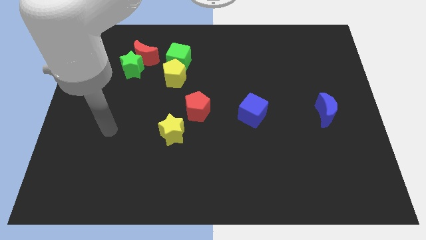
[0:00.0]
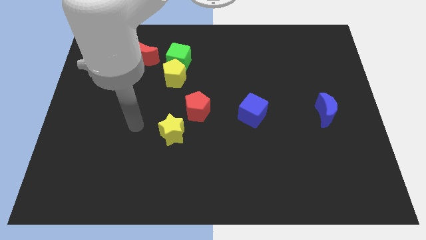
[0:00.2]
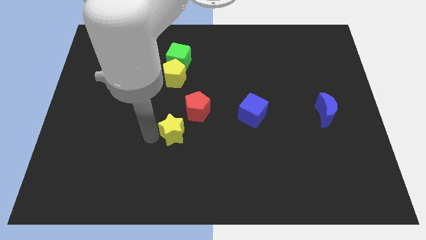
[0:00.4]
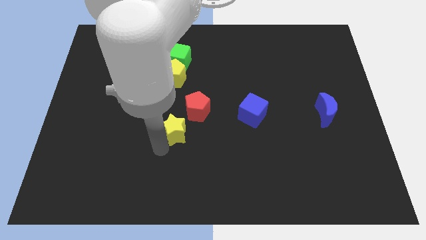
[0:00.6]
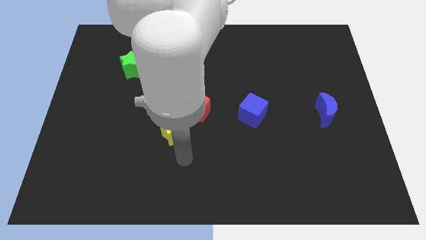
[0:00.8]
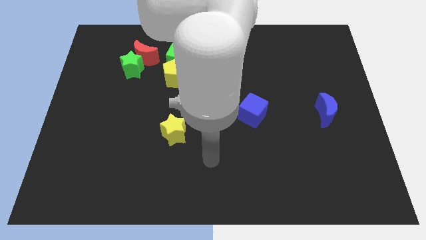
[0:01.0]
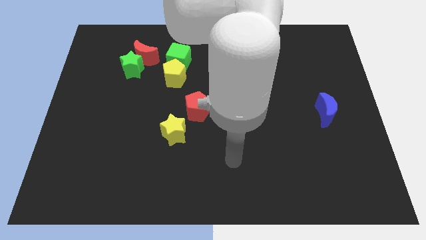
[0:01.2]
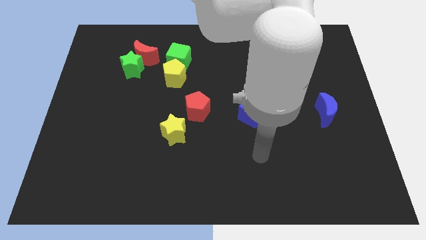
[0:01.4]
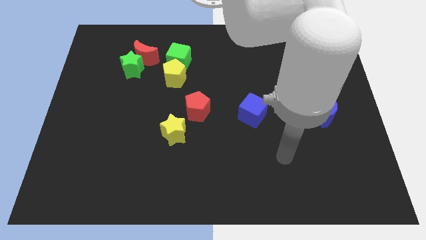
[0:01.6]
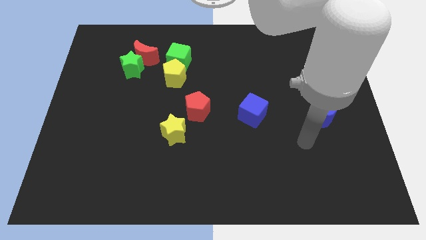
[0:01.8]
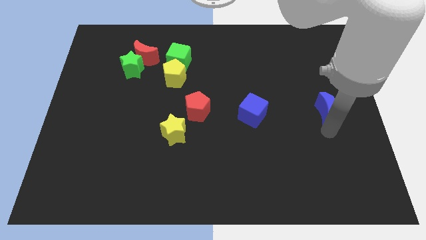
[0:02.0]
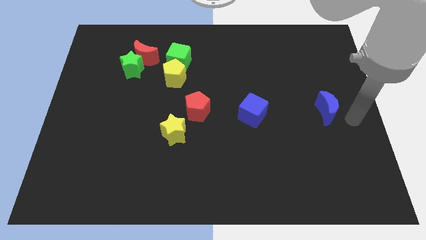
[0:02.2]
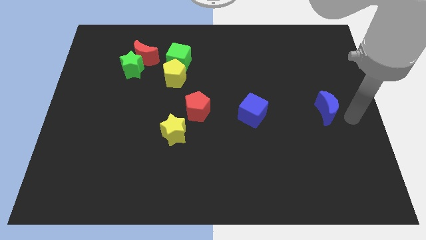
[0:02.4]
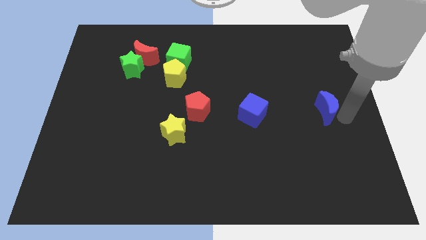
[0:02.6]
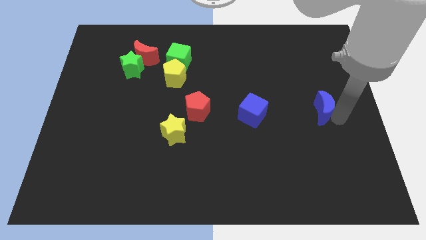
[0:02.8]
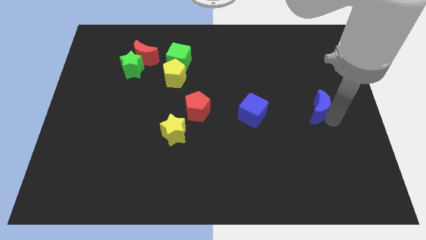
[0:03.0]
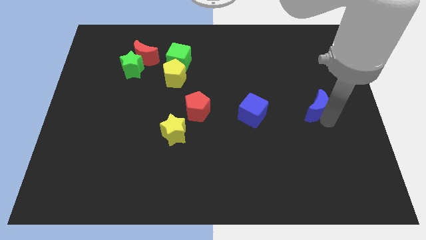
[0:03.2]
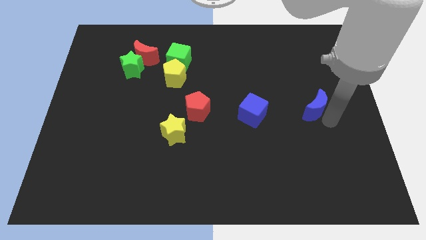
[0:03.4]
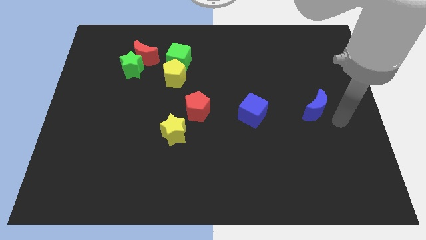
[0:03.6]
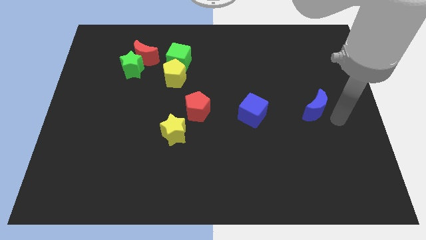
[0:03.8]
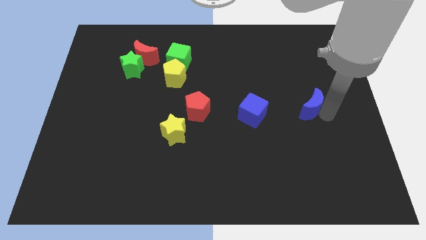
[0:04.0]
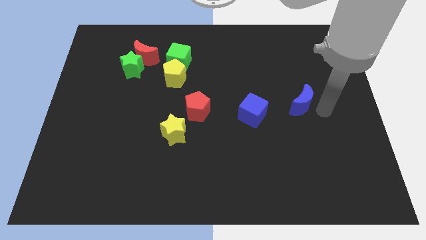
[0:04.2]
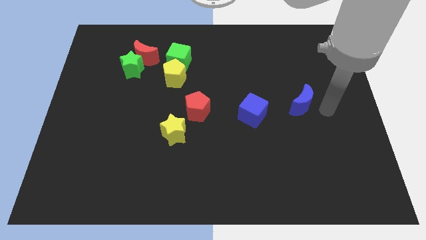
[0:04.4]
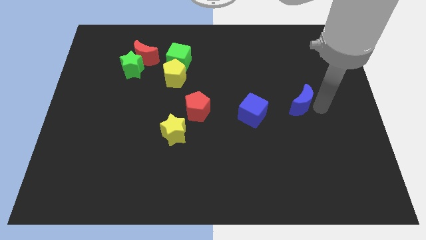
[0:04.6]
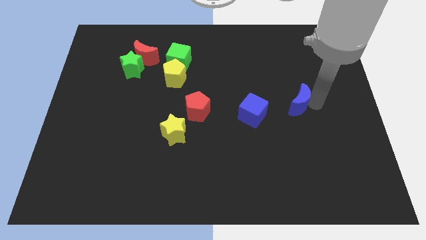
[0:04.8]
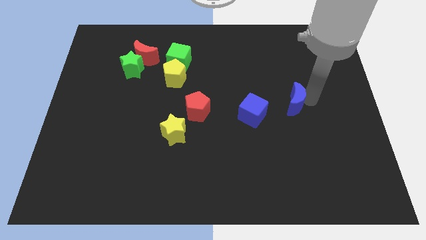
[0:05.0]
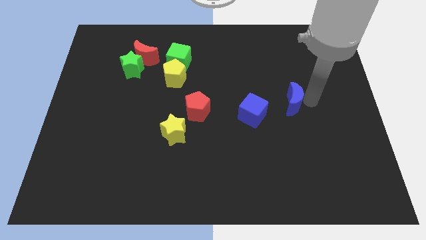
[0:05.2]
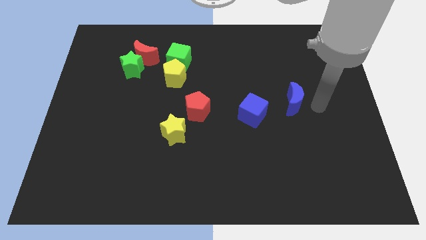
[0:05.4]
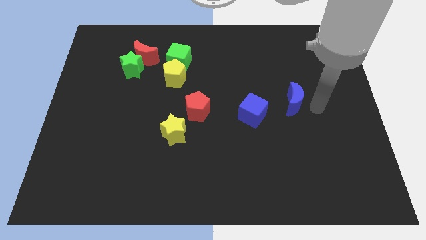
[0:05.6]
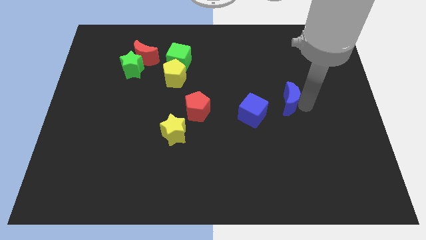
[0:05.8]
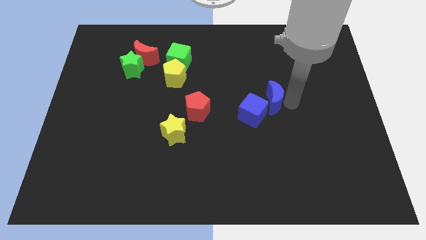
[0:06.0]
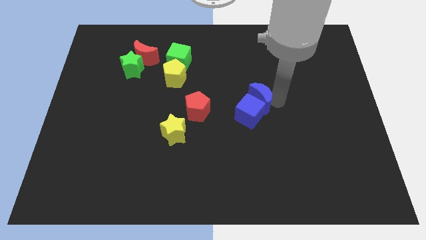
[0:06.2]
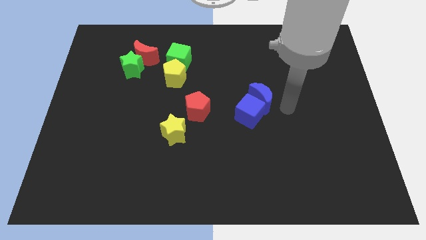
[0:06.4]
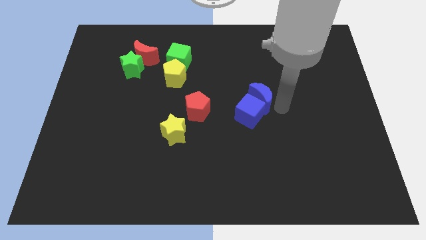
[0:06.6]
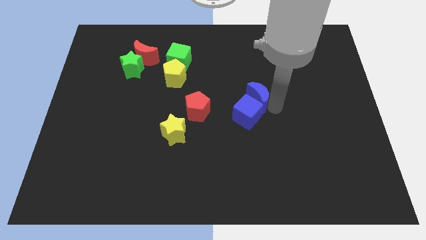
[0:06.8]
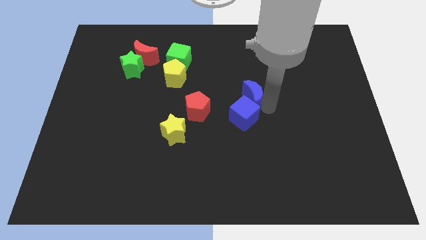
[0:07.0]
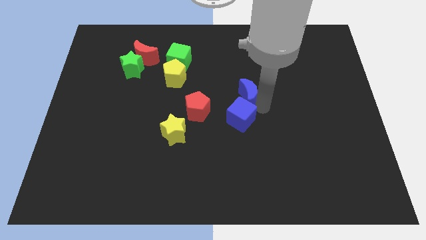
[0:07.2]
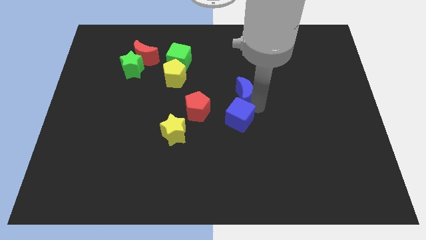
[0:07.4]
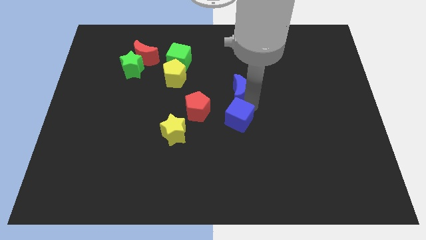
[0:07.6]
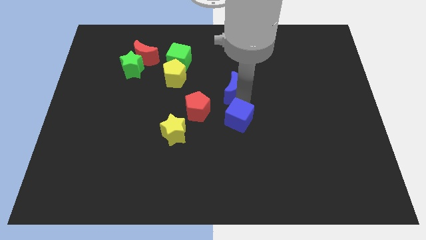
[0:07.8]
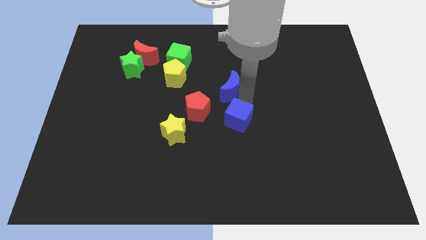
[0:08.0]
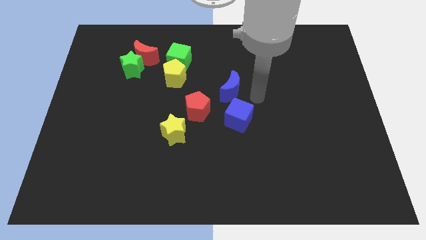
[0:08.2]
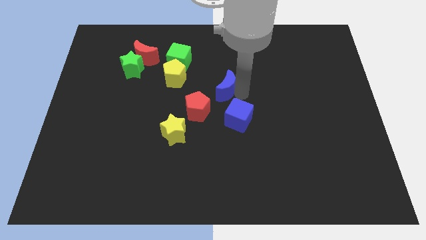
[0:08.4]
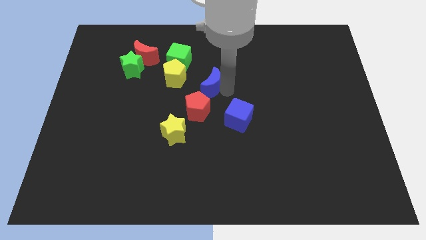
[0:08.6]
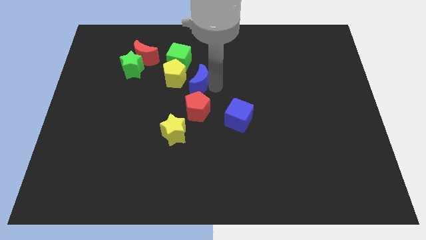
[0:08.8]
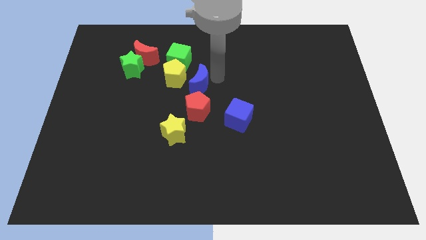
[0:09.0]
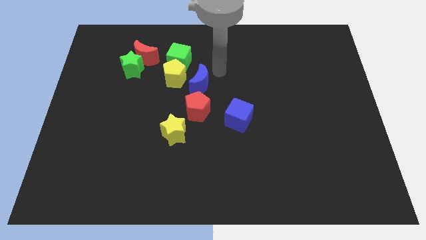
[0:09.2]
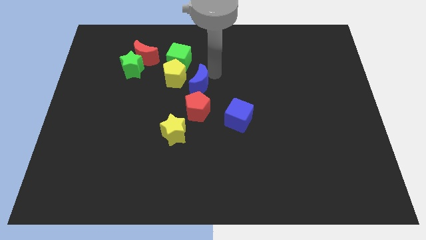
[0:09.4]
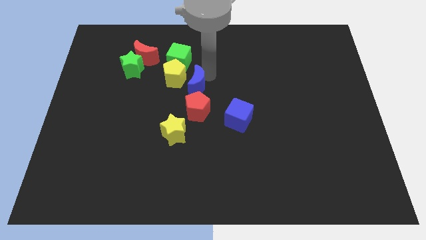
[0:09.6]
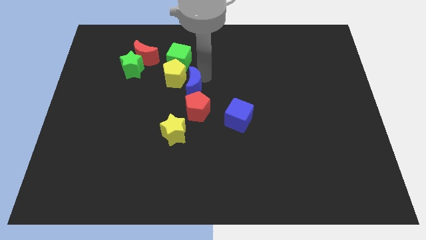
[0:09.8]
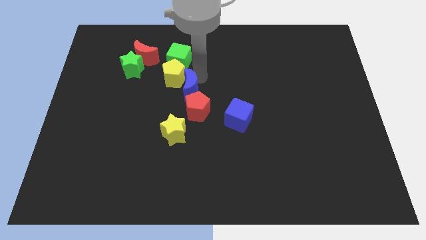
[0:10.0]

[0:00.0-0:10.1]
slide the blue moon to the bottom of the yellow pentagon

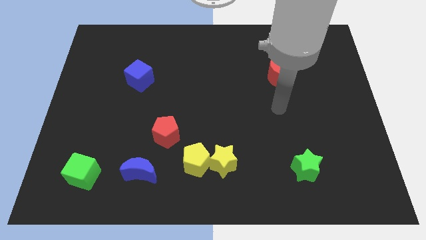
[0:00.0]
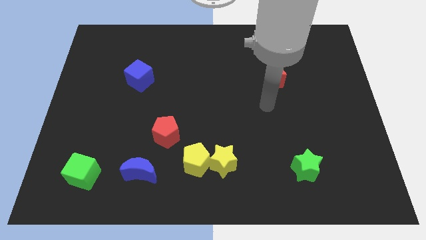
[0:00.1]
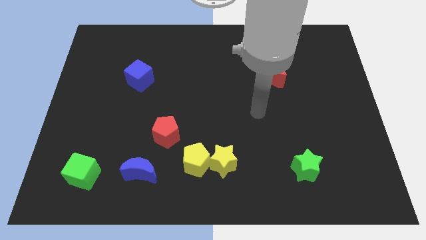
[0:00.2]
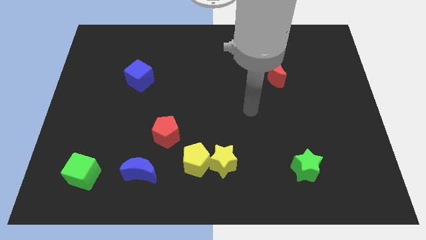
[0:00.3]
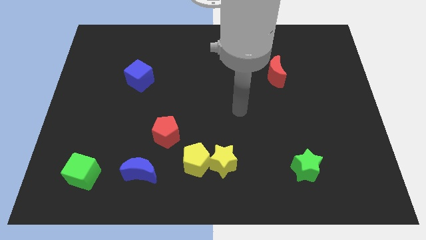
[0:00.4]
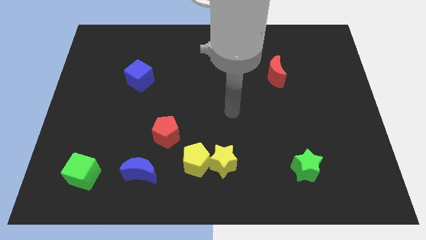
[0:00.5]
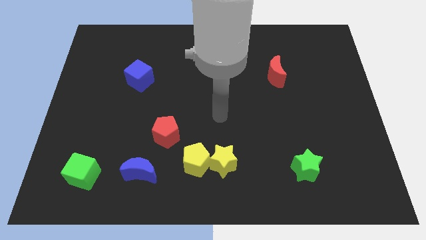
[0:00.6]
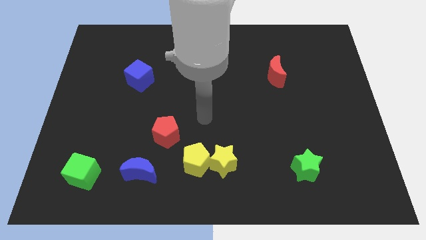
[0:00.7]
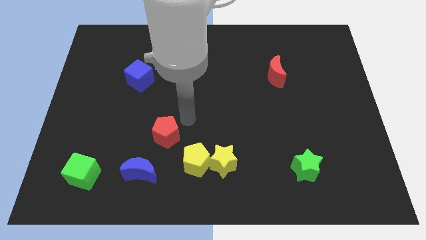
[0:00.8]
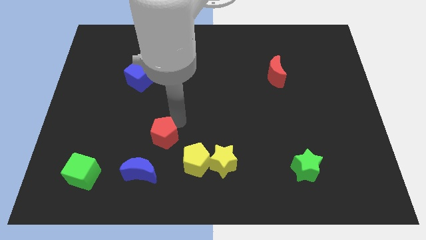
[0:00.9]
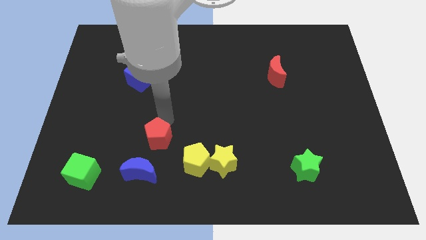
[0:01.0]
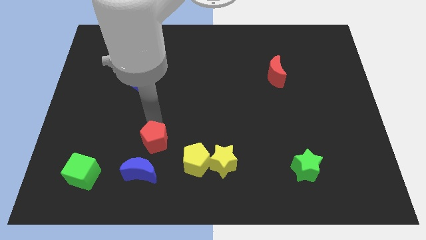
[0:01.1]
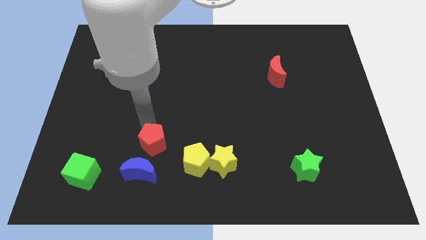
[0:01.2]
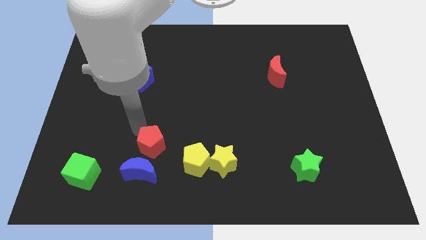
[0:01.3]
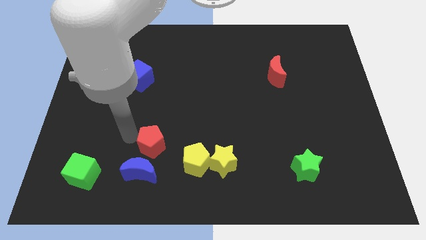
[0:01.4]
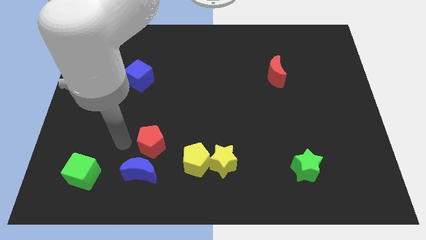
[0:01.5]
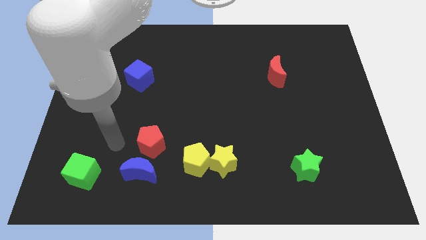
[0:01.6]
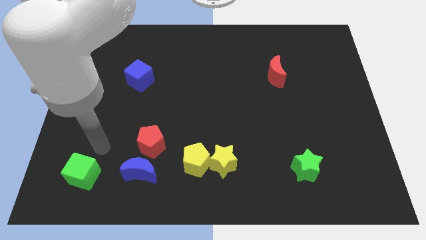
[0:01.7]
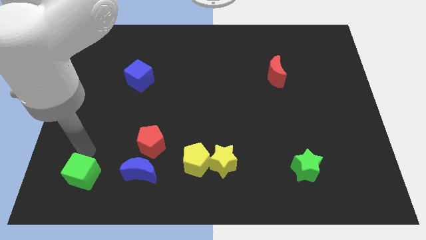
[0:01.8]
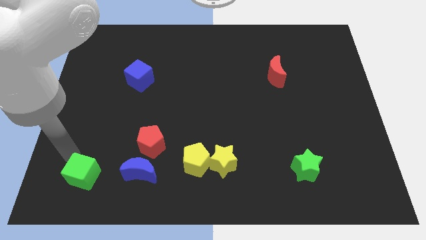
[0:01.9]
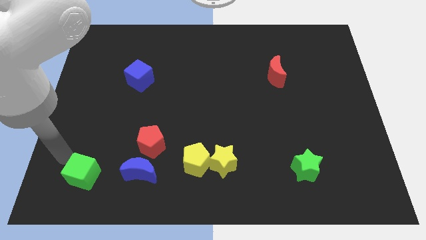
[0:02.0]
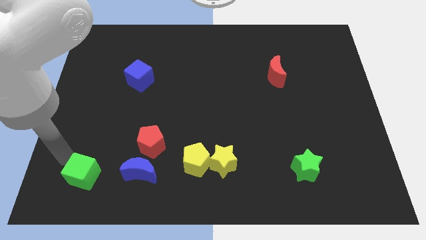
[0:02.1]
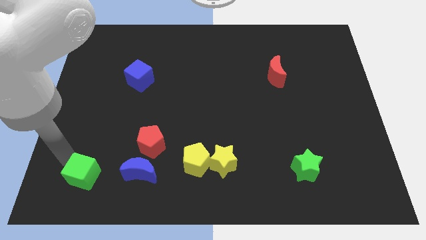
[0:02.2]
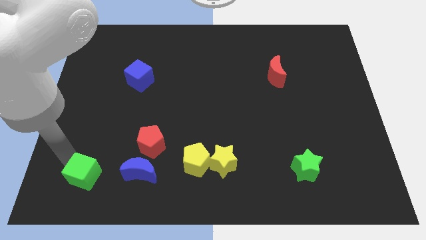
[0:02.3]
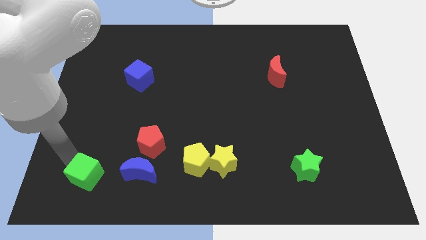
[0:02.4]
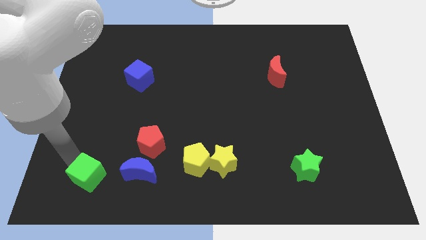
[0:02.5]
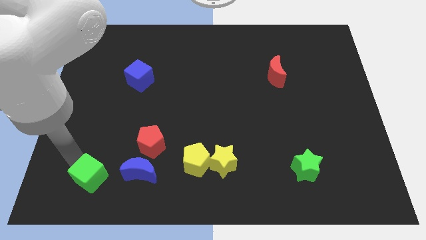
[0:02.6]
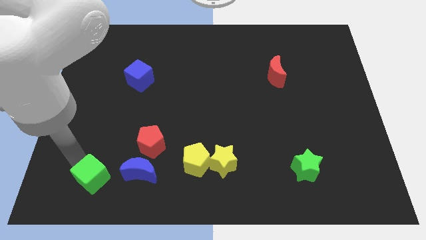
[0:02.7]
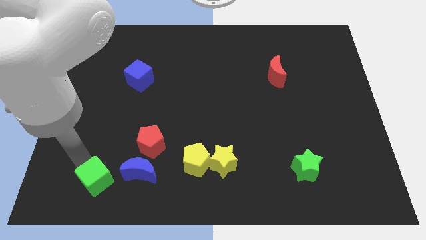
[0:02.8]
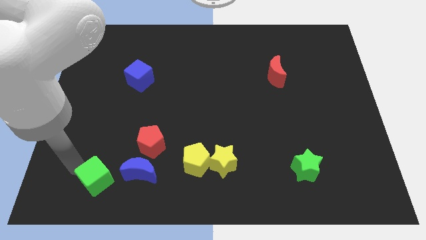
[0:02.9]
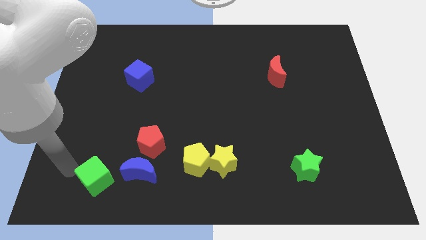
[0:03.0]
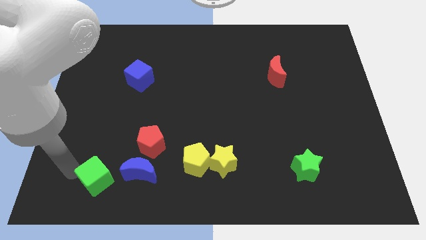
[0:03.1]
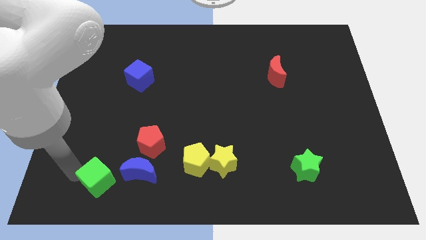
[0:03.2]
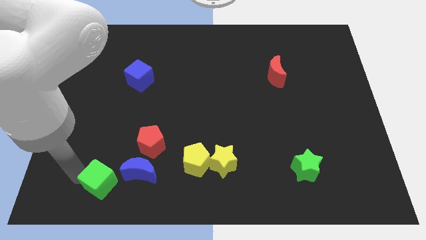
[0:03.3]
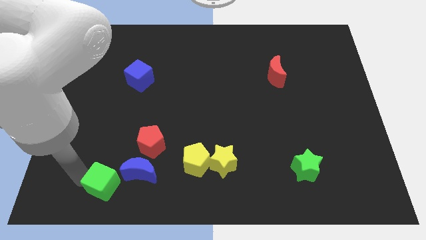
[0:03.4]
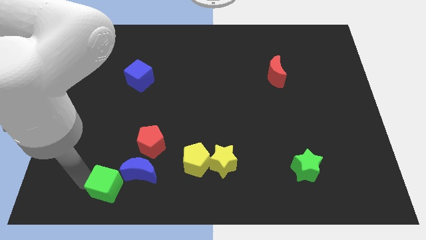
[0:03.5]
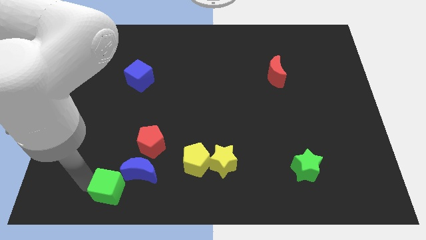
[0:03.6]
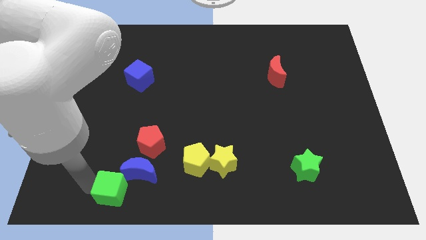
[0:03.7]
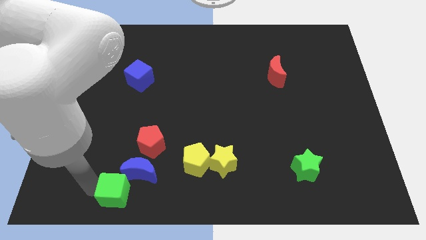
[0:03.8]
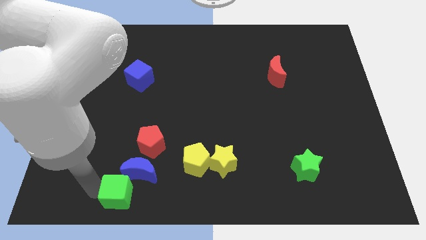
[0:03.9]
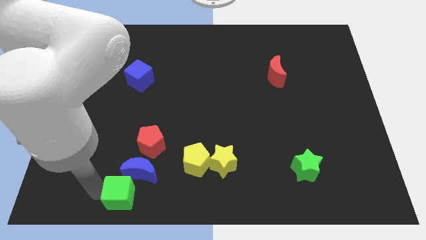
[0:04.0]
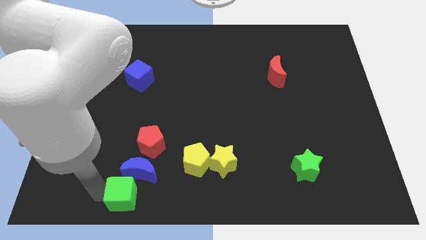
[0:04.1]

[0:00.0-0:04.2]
push the green cube below the red pentagon
